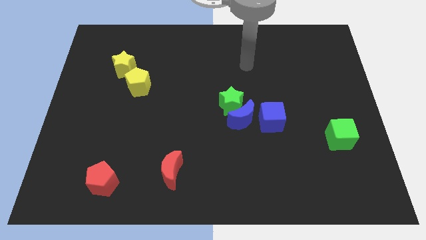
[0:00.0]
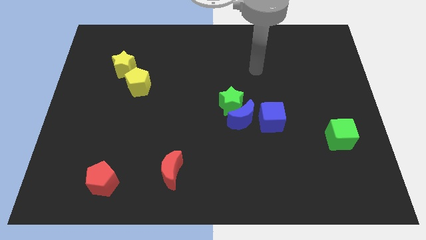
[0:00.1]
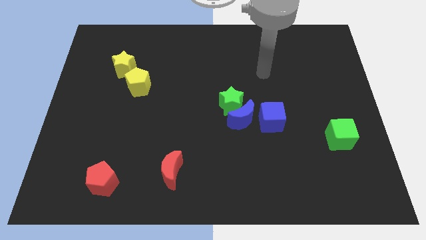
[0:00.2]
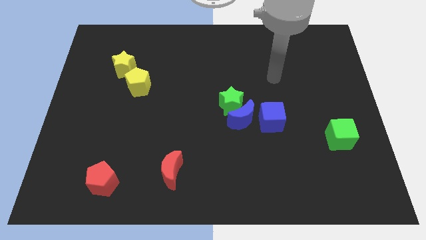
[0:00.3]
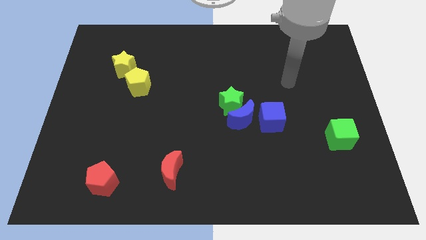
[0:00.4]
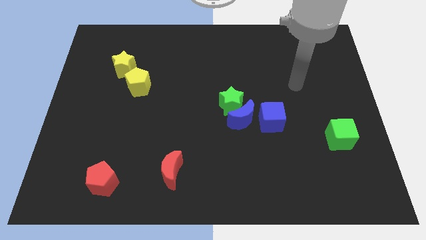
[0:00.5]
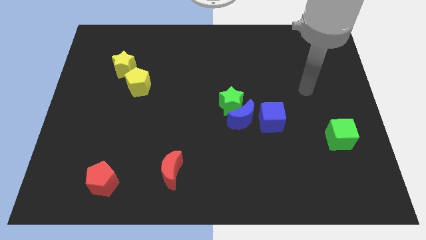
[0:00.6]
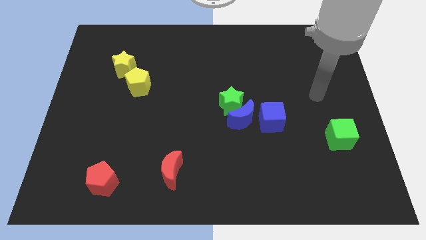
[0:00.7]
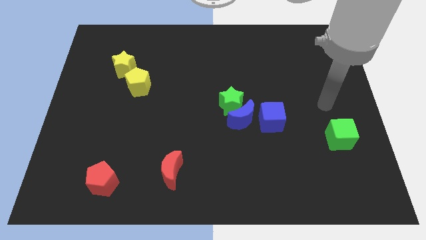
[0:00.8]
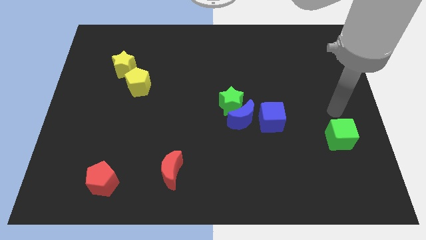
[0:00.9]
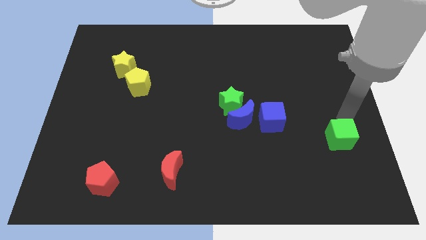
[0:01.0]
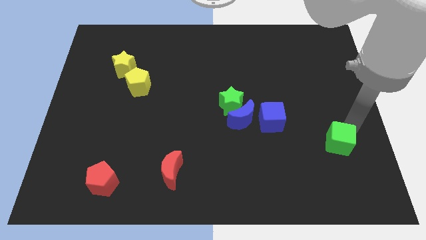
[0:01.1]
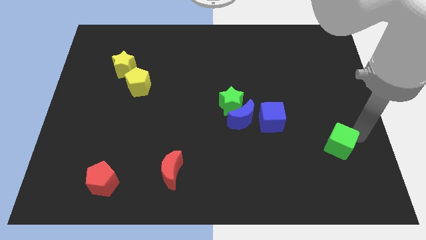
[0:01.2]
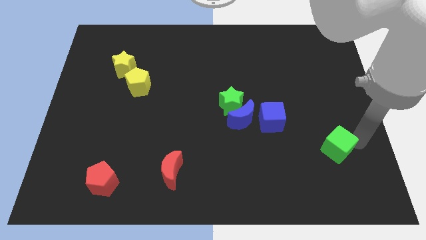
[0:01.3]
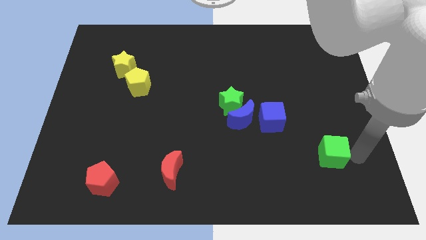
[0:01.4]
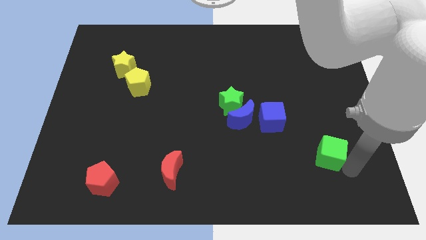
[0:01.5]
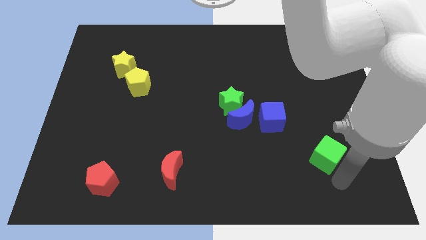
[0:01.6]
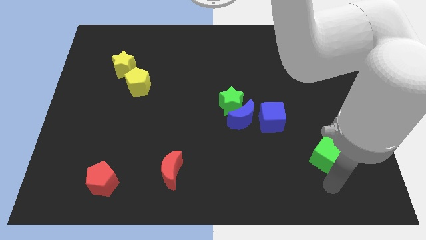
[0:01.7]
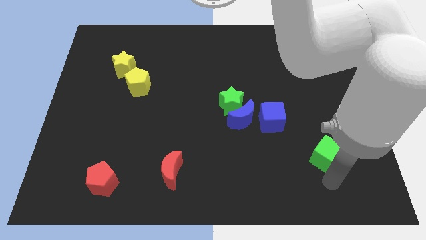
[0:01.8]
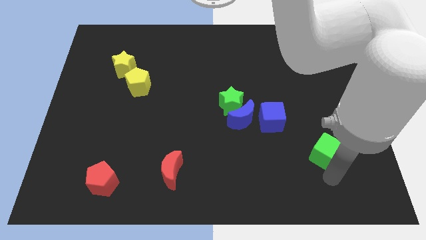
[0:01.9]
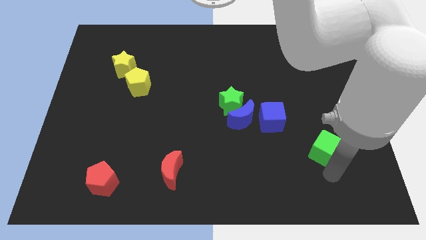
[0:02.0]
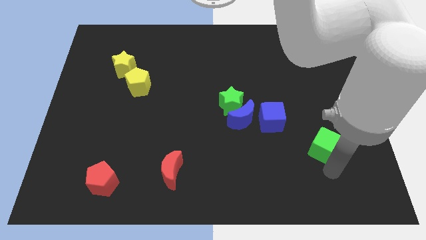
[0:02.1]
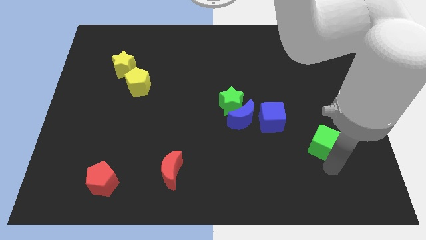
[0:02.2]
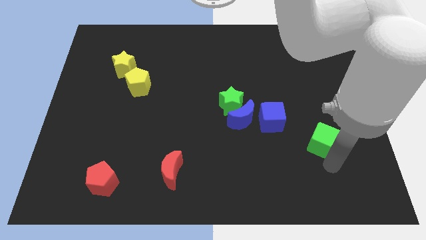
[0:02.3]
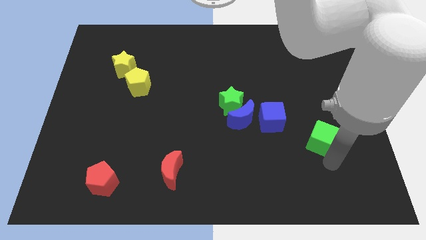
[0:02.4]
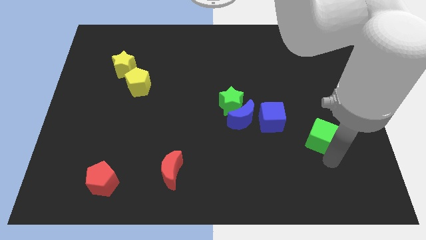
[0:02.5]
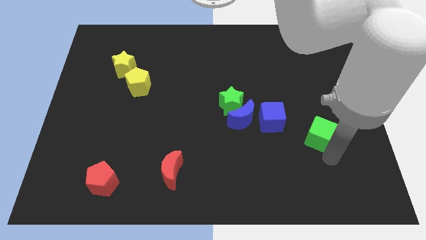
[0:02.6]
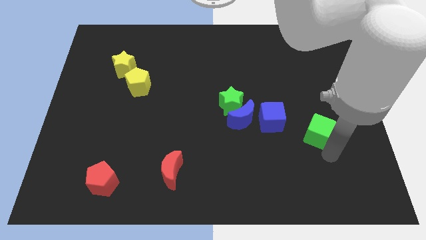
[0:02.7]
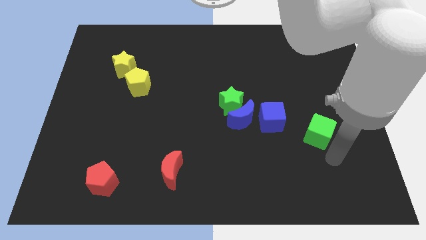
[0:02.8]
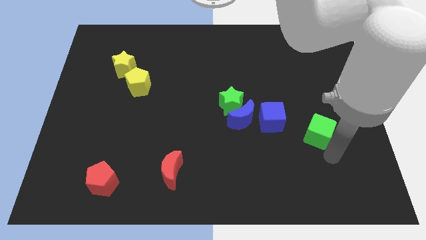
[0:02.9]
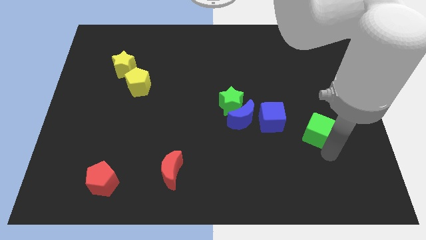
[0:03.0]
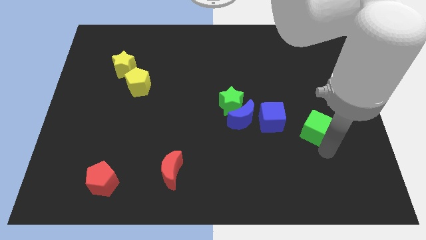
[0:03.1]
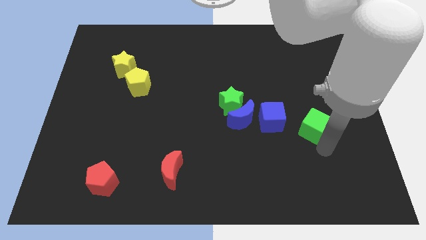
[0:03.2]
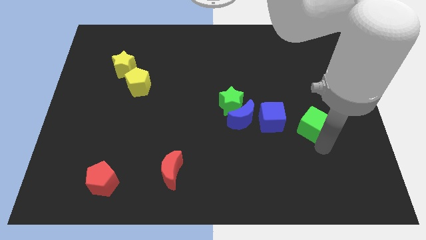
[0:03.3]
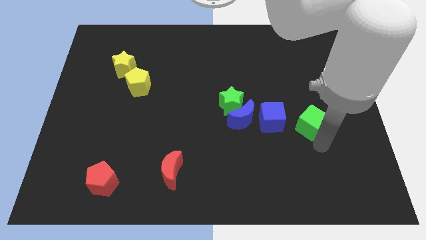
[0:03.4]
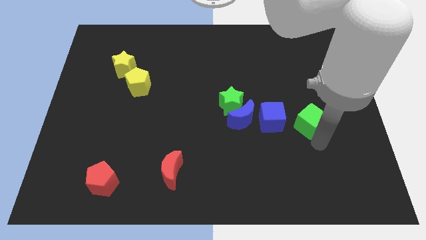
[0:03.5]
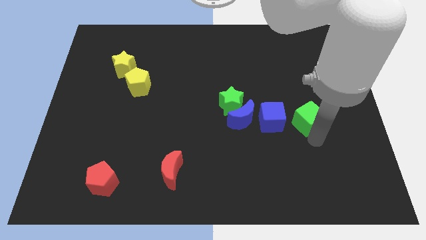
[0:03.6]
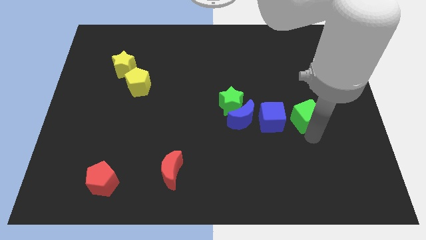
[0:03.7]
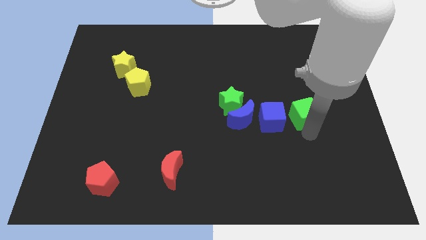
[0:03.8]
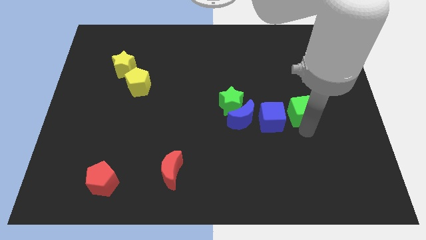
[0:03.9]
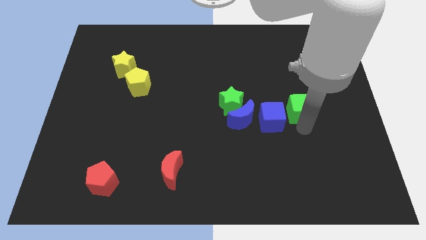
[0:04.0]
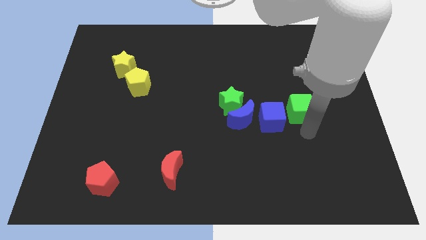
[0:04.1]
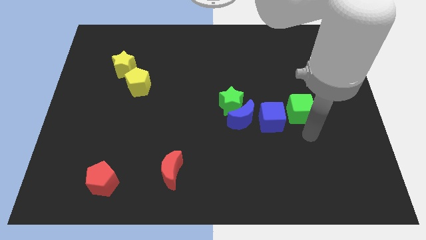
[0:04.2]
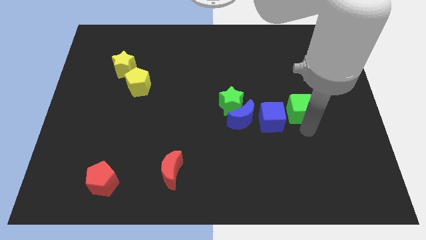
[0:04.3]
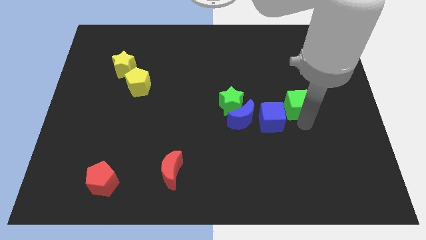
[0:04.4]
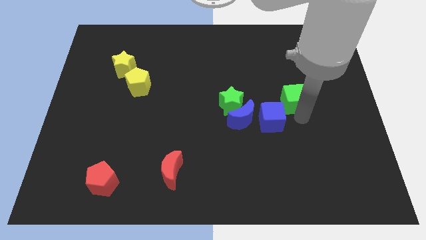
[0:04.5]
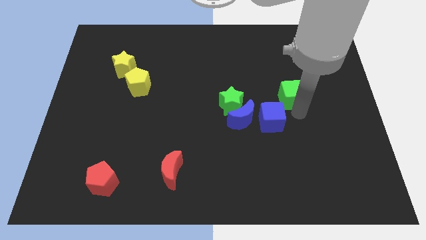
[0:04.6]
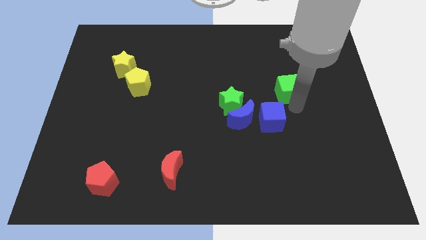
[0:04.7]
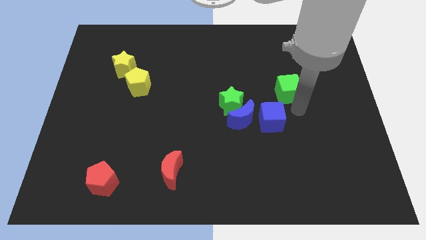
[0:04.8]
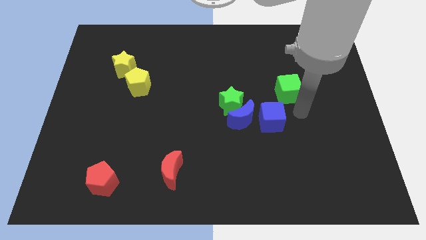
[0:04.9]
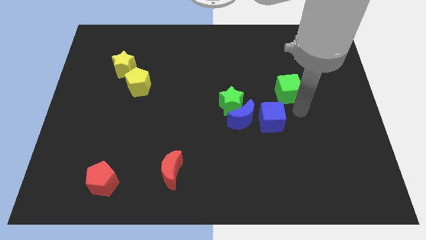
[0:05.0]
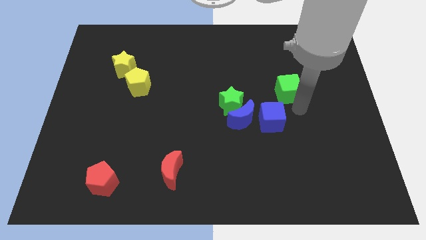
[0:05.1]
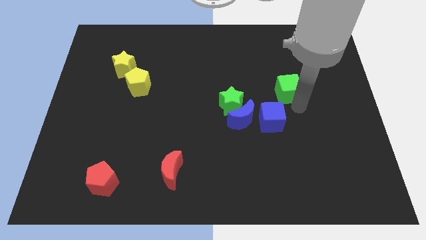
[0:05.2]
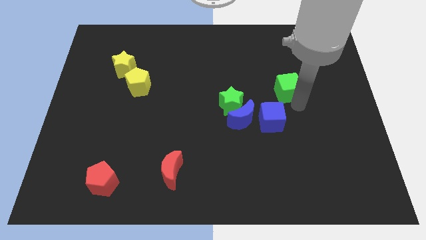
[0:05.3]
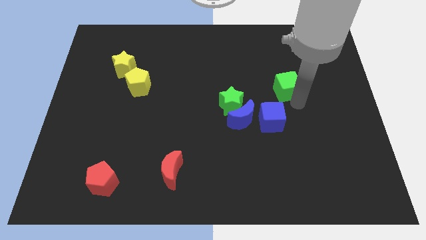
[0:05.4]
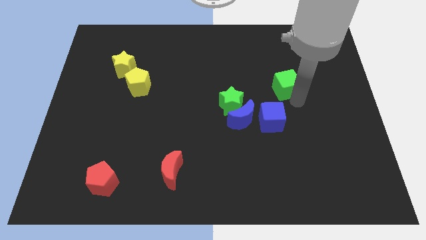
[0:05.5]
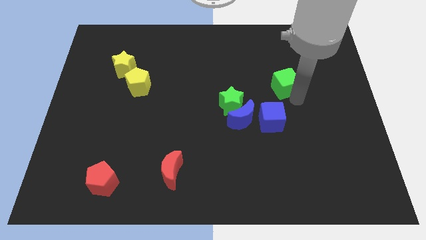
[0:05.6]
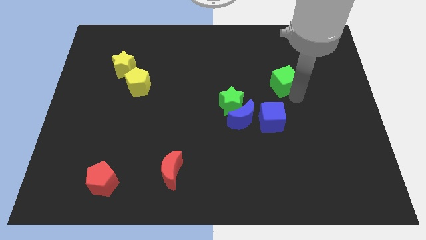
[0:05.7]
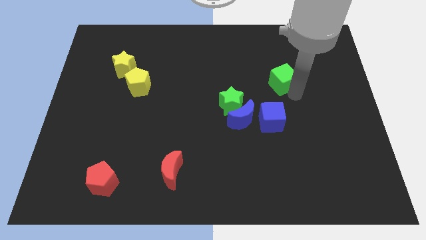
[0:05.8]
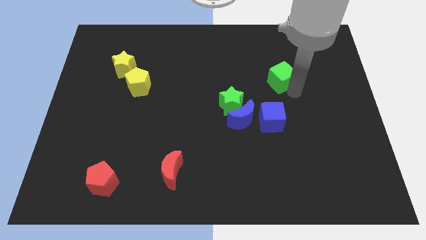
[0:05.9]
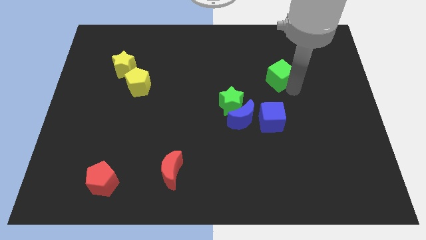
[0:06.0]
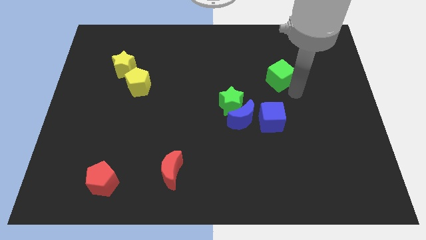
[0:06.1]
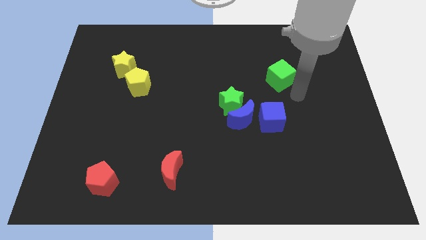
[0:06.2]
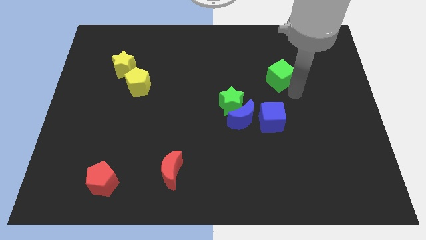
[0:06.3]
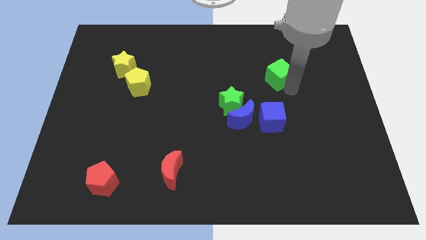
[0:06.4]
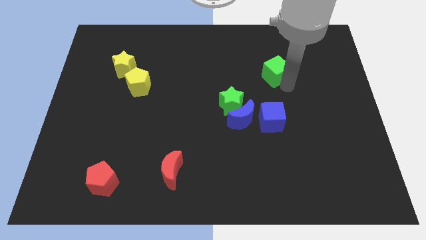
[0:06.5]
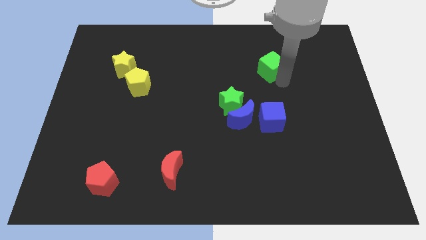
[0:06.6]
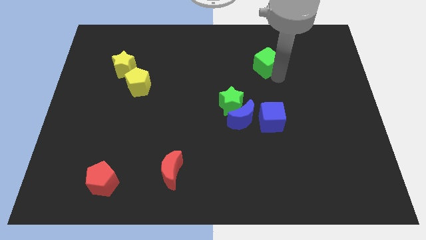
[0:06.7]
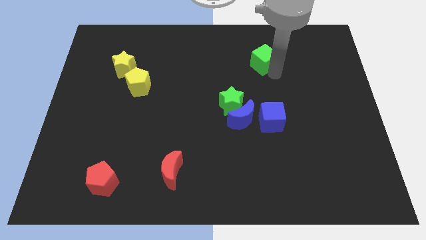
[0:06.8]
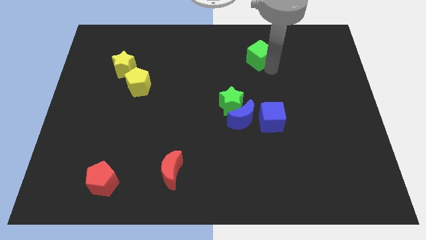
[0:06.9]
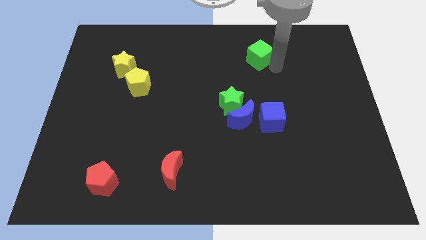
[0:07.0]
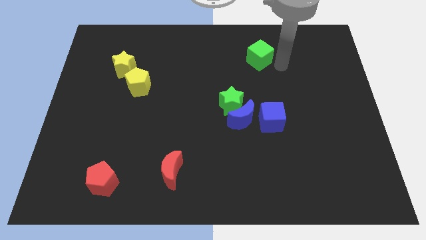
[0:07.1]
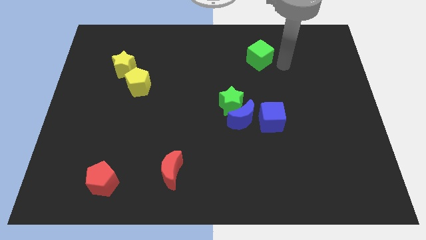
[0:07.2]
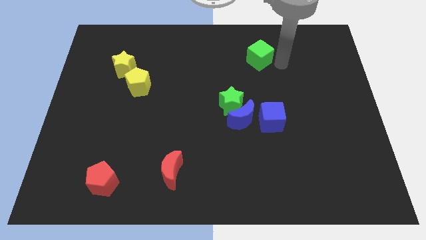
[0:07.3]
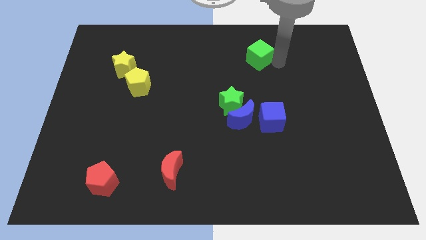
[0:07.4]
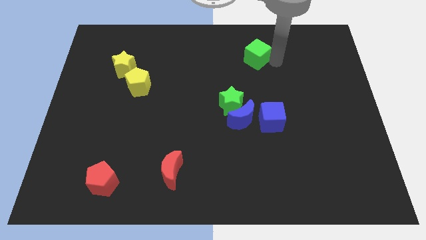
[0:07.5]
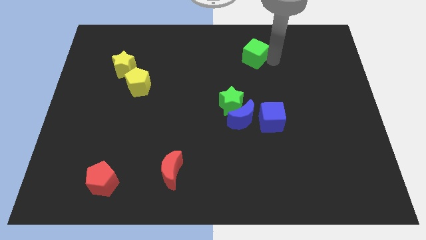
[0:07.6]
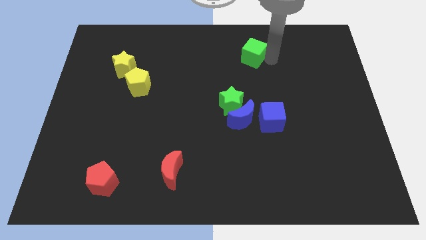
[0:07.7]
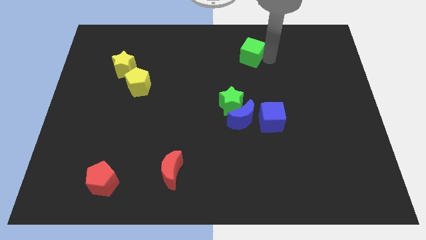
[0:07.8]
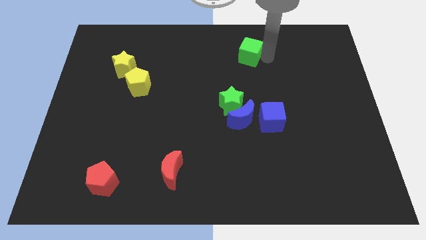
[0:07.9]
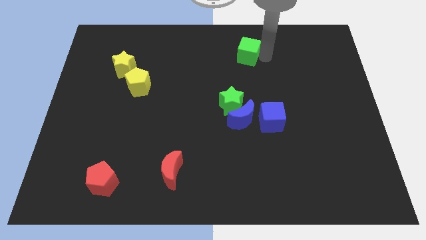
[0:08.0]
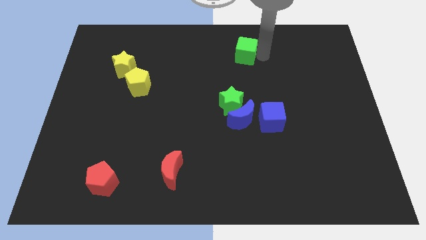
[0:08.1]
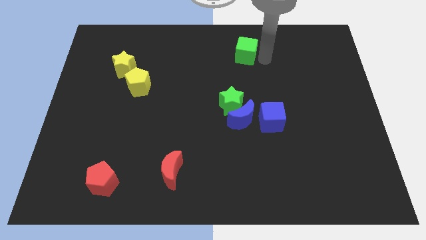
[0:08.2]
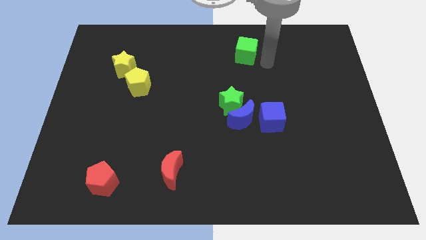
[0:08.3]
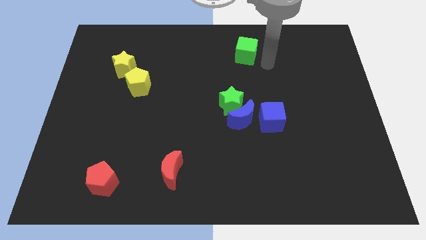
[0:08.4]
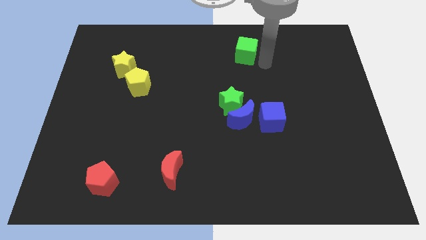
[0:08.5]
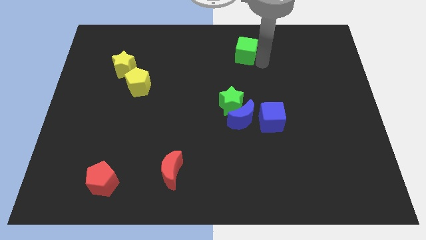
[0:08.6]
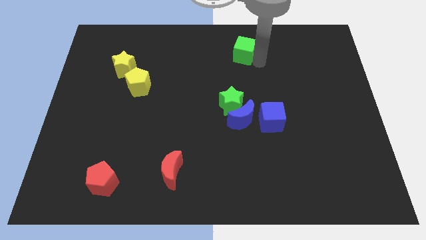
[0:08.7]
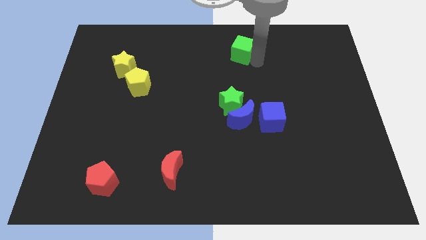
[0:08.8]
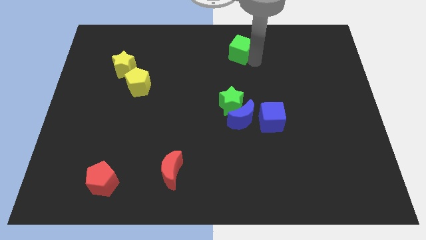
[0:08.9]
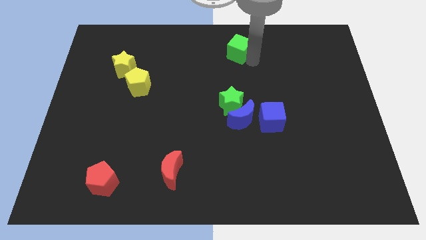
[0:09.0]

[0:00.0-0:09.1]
move the green cube to the top
